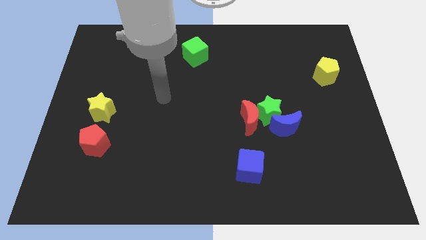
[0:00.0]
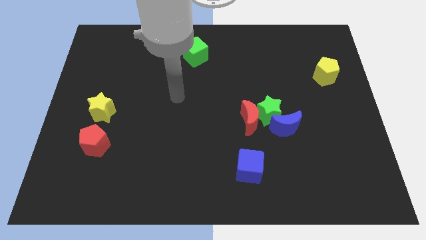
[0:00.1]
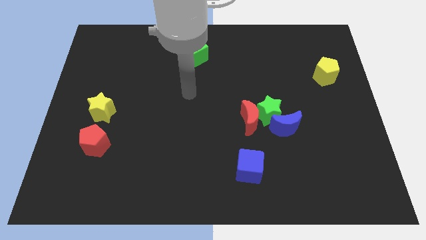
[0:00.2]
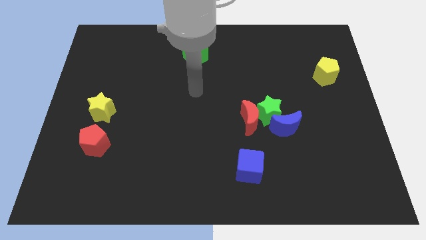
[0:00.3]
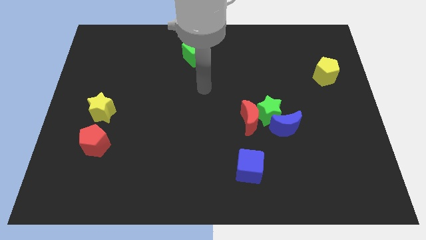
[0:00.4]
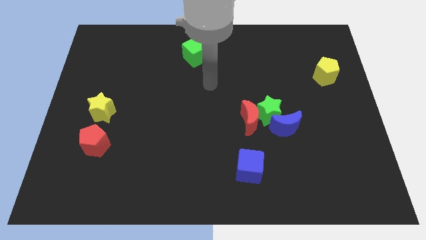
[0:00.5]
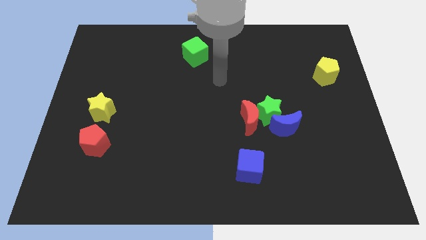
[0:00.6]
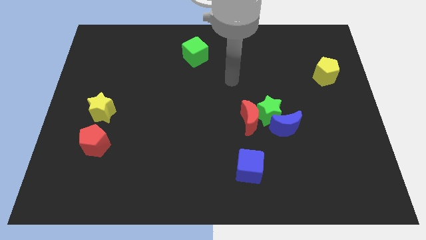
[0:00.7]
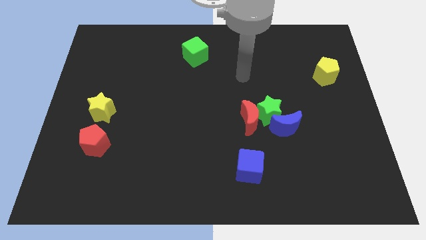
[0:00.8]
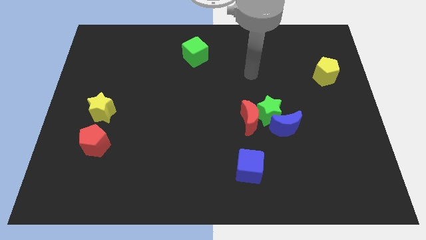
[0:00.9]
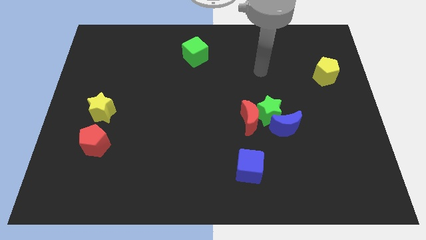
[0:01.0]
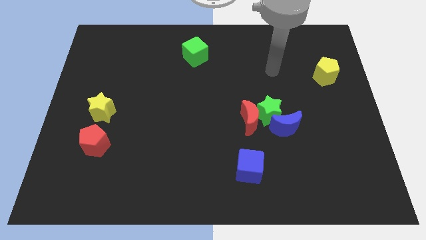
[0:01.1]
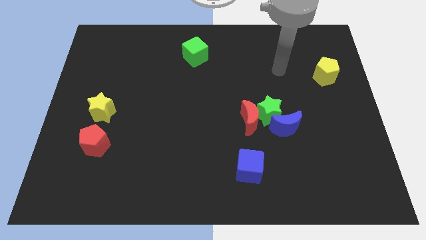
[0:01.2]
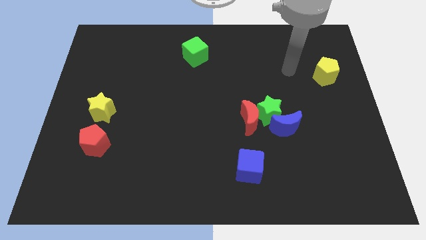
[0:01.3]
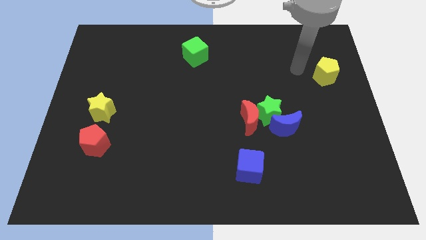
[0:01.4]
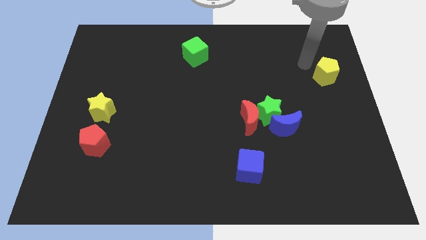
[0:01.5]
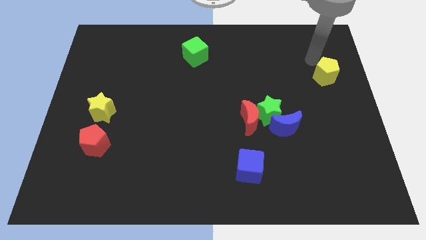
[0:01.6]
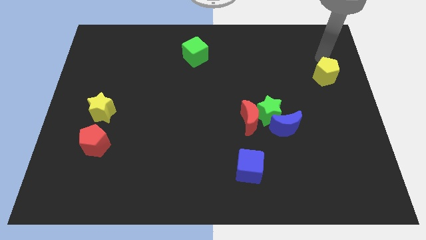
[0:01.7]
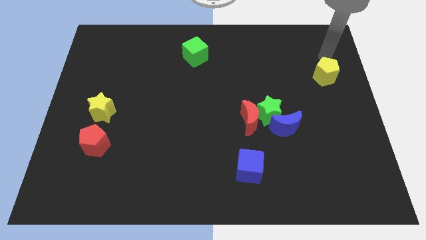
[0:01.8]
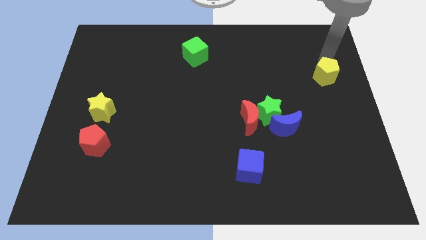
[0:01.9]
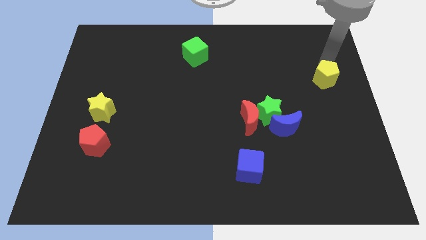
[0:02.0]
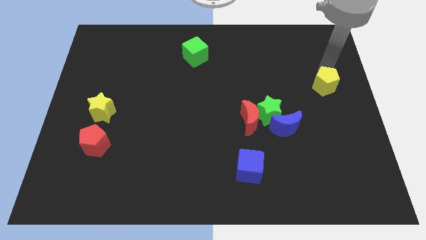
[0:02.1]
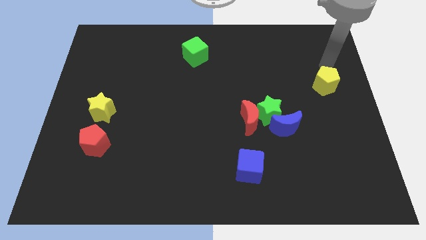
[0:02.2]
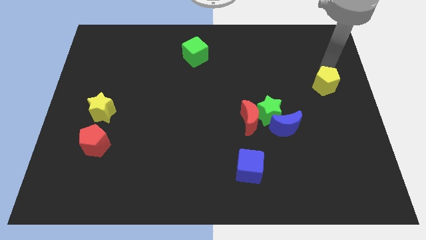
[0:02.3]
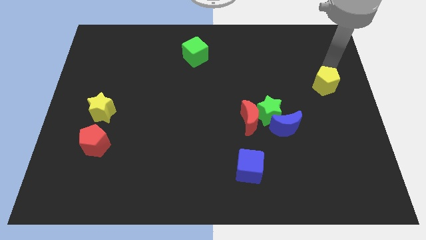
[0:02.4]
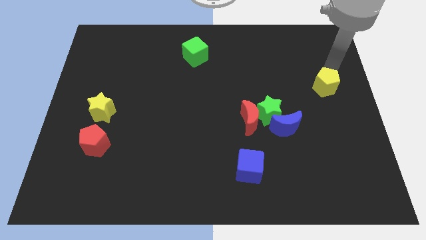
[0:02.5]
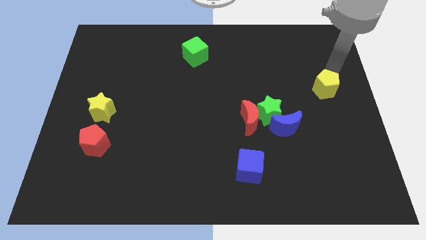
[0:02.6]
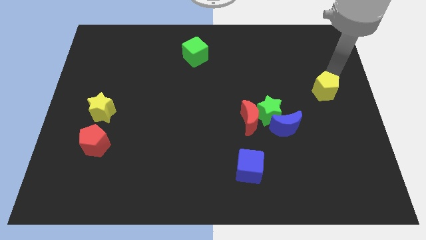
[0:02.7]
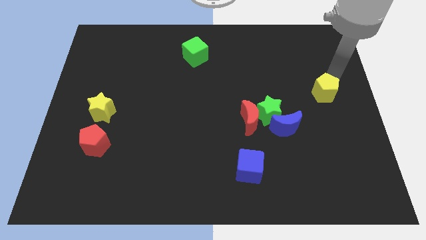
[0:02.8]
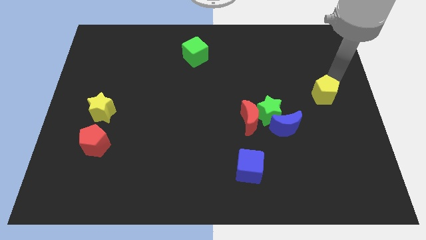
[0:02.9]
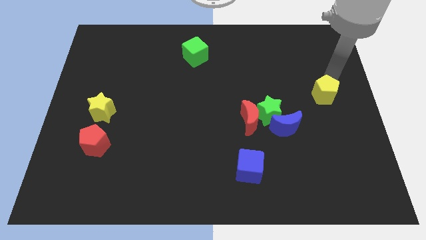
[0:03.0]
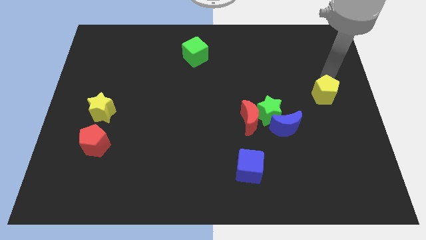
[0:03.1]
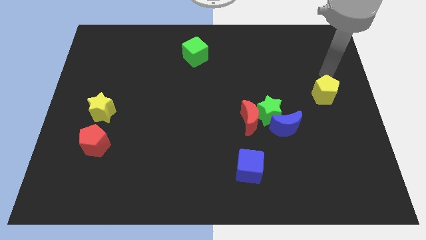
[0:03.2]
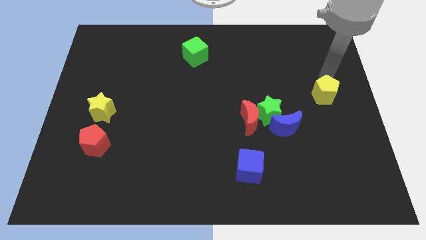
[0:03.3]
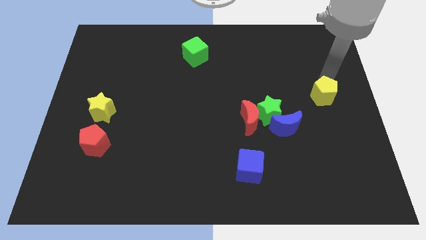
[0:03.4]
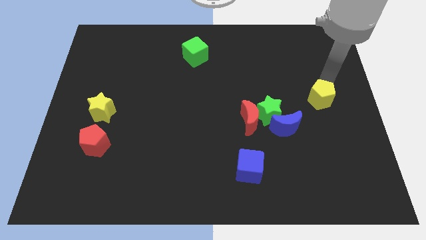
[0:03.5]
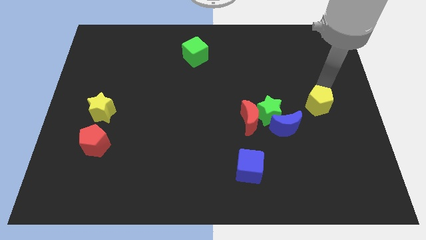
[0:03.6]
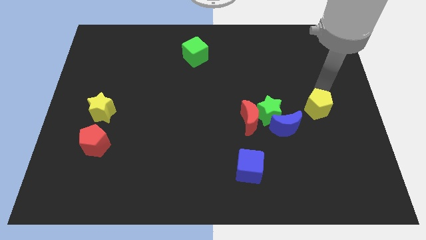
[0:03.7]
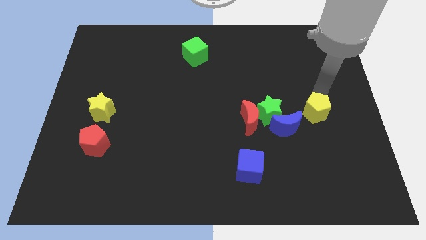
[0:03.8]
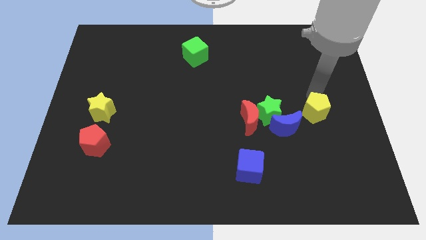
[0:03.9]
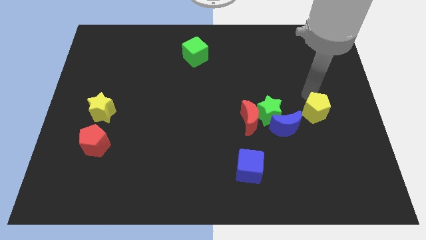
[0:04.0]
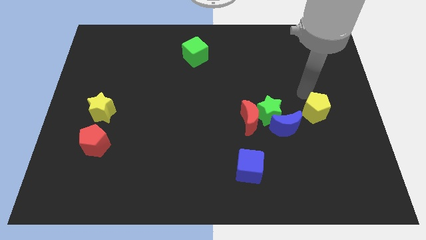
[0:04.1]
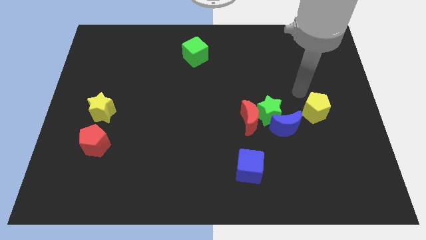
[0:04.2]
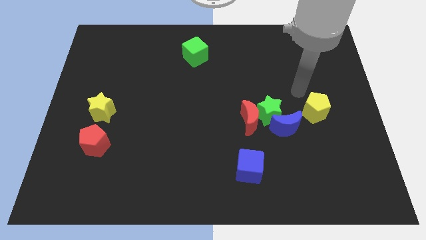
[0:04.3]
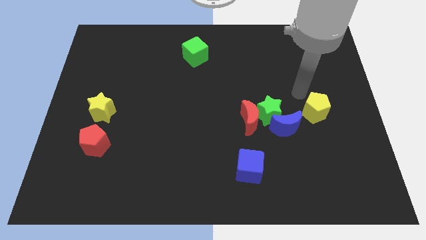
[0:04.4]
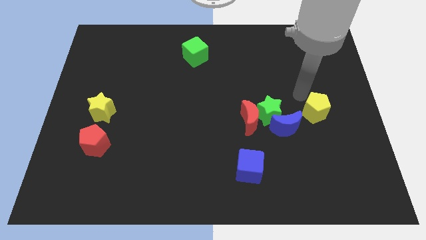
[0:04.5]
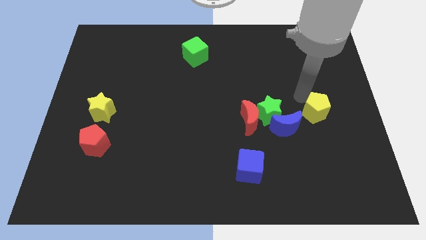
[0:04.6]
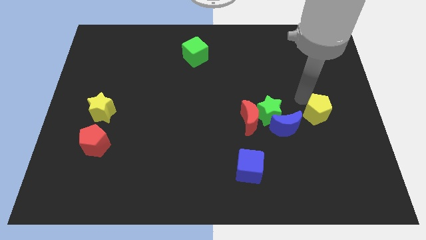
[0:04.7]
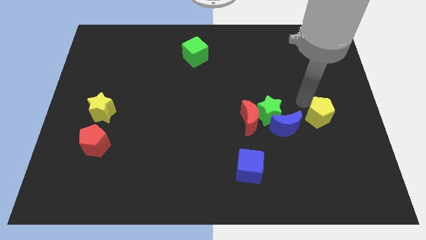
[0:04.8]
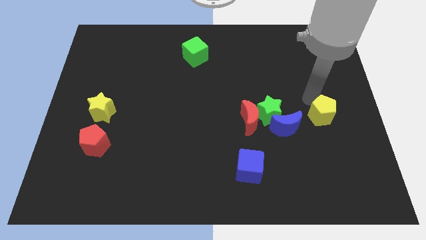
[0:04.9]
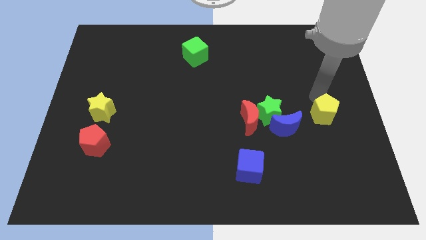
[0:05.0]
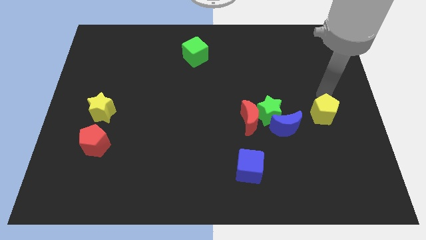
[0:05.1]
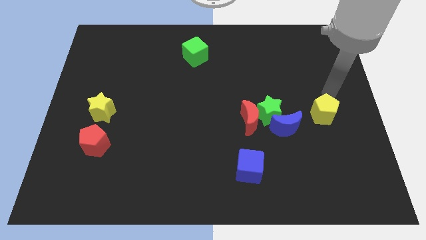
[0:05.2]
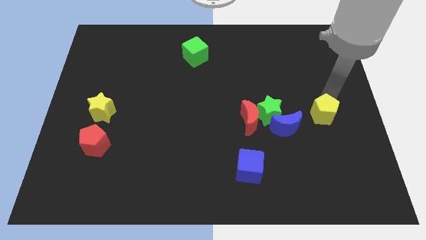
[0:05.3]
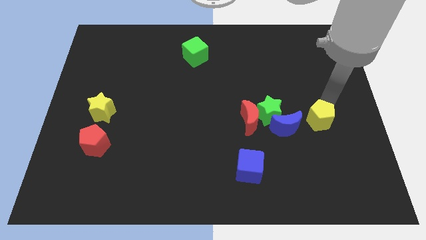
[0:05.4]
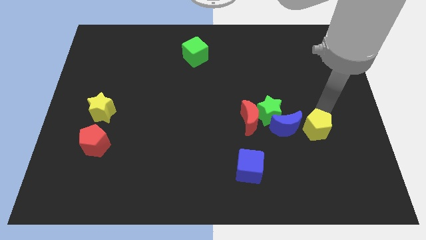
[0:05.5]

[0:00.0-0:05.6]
put the yellow pentagon to the bottom right side of the blue moon

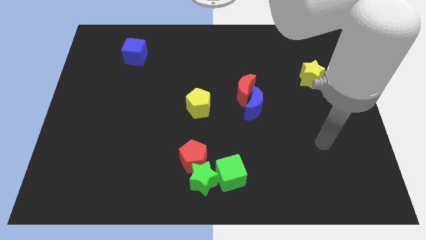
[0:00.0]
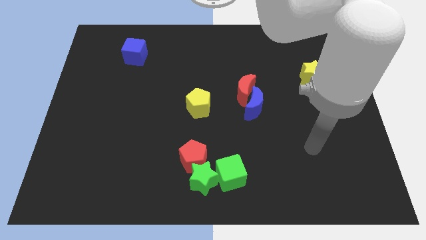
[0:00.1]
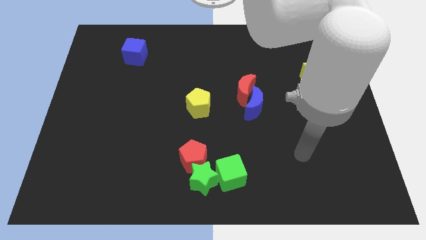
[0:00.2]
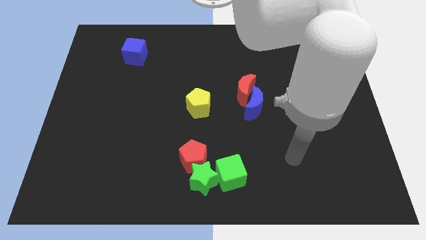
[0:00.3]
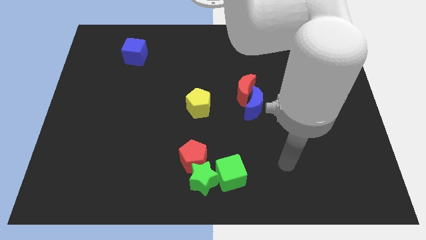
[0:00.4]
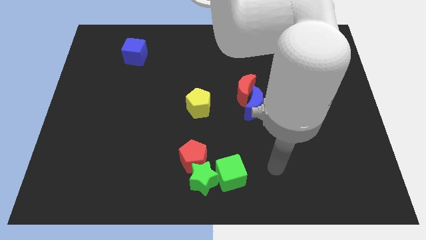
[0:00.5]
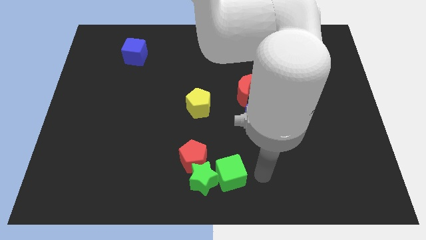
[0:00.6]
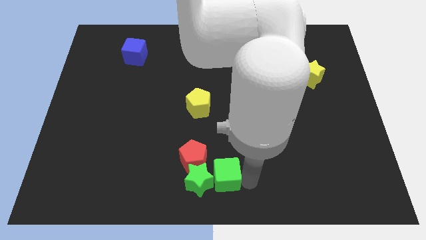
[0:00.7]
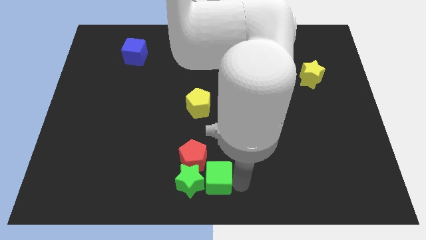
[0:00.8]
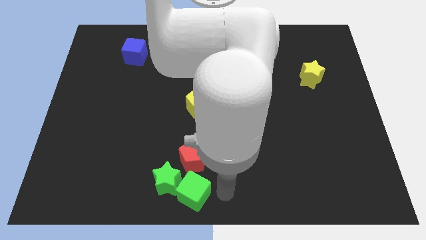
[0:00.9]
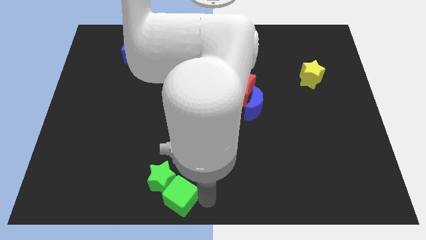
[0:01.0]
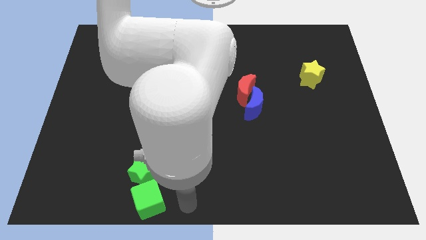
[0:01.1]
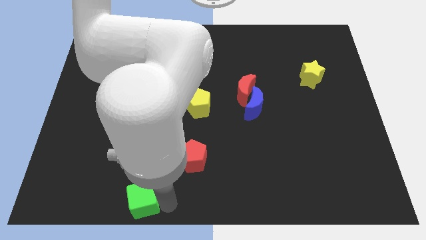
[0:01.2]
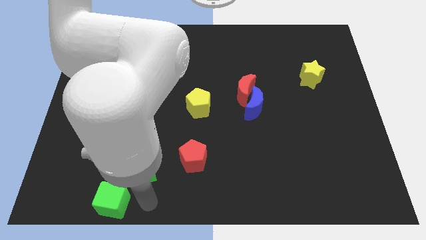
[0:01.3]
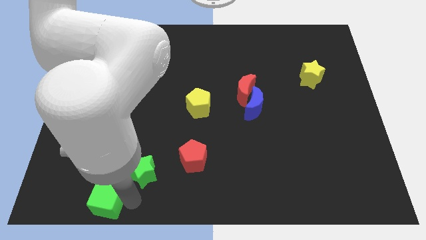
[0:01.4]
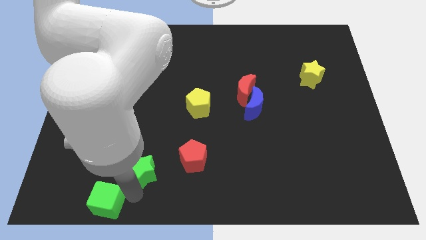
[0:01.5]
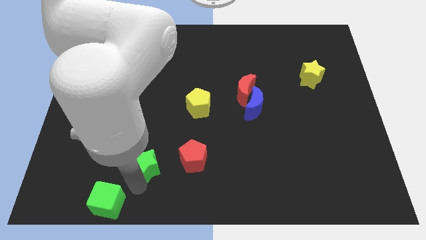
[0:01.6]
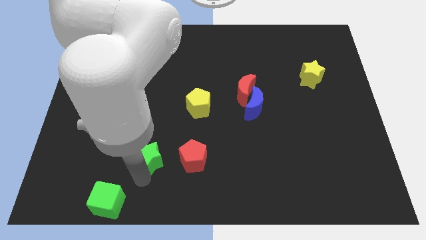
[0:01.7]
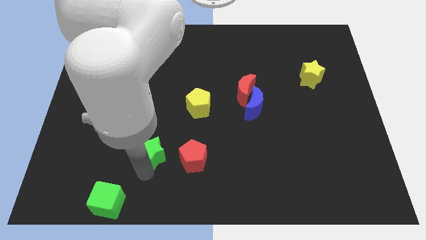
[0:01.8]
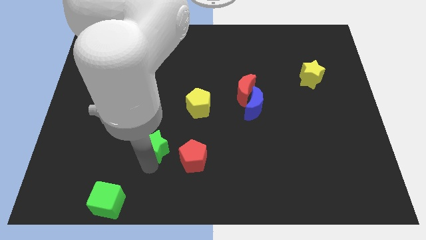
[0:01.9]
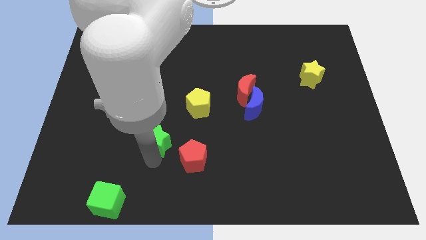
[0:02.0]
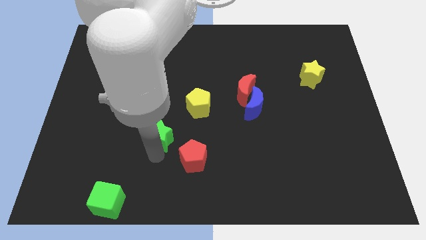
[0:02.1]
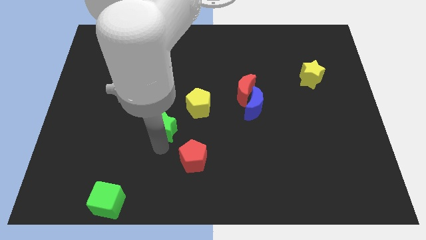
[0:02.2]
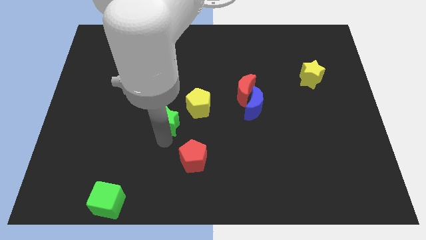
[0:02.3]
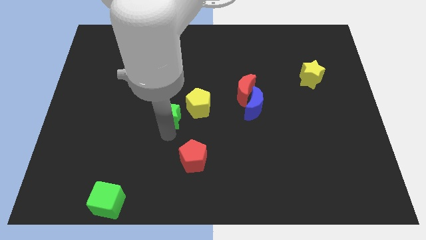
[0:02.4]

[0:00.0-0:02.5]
slide the green star left of the yellow pentagon
